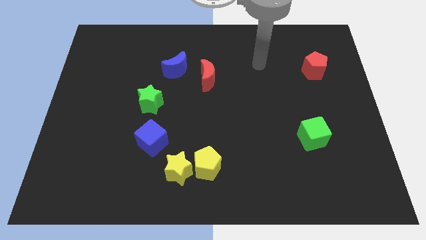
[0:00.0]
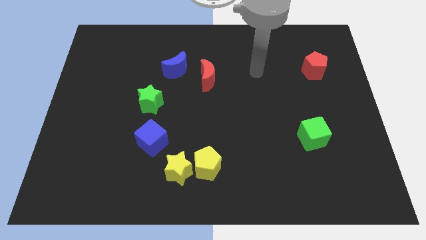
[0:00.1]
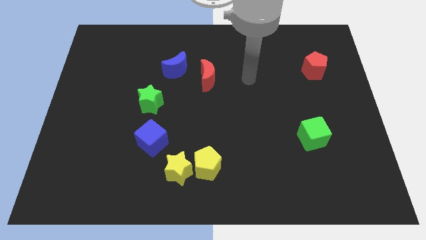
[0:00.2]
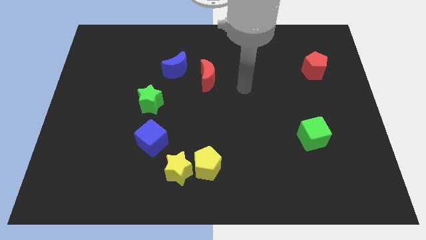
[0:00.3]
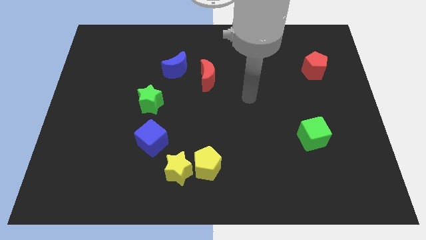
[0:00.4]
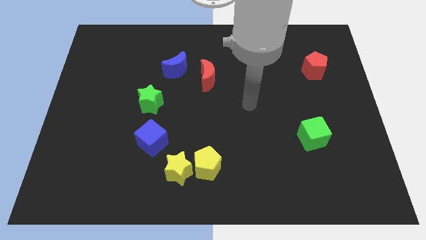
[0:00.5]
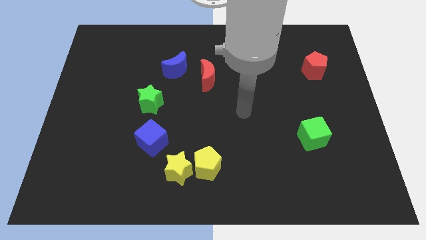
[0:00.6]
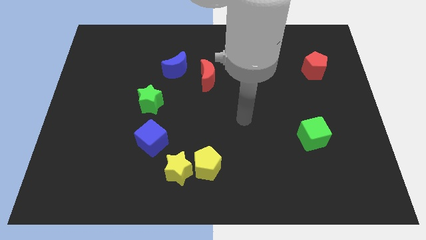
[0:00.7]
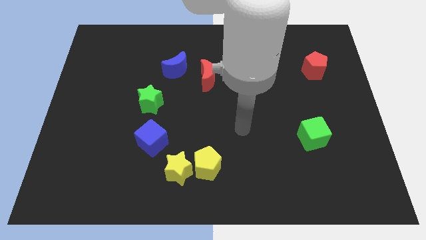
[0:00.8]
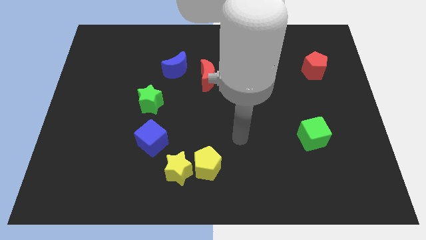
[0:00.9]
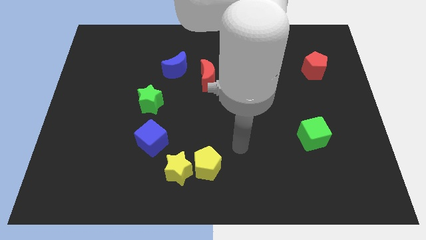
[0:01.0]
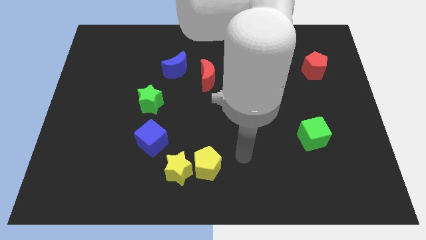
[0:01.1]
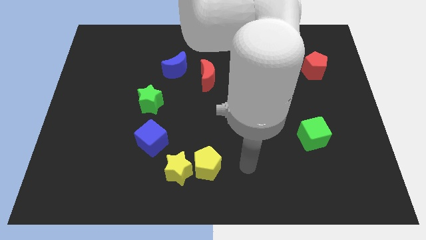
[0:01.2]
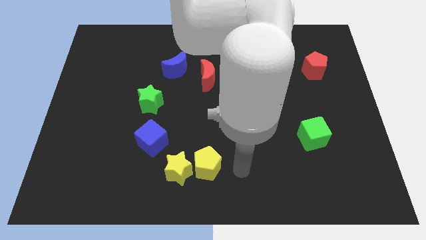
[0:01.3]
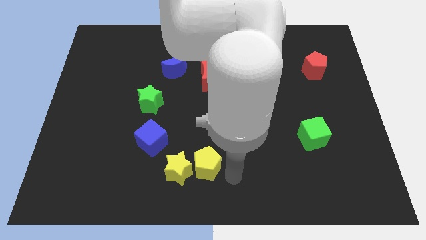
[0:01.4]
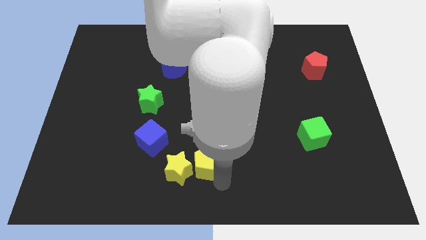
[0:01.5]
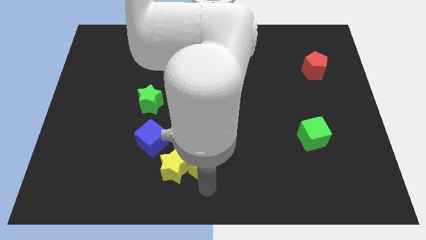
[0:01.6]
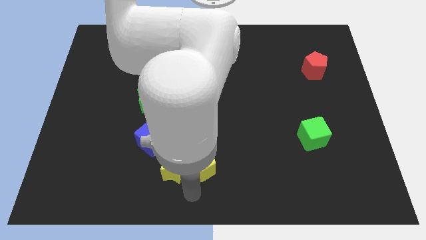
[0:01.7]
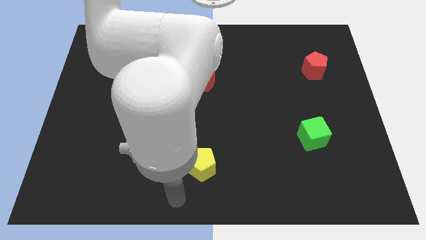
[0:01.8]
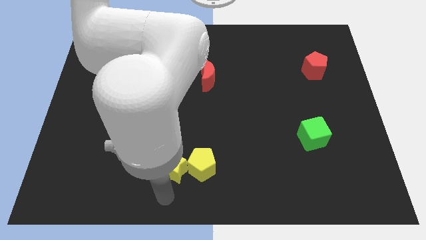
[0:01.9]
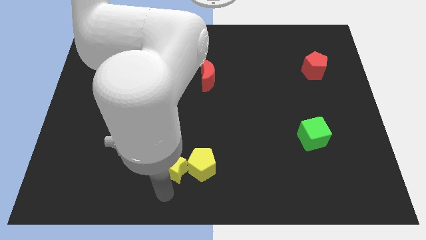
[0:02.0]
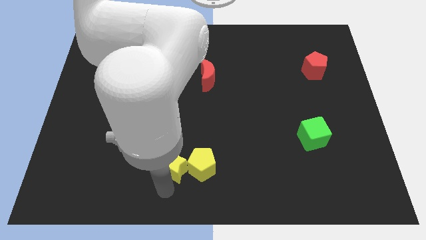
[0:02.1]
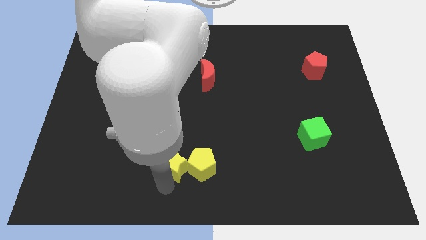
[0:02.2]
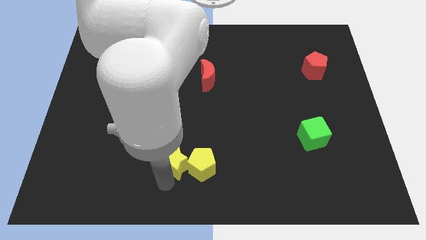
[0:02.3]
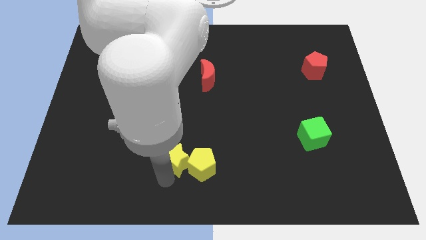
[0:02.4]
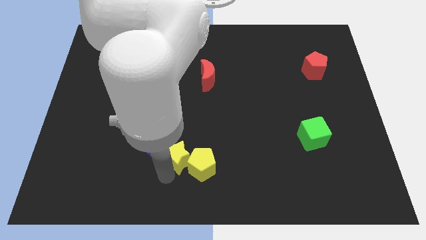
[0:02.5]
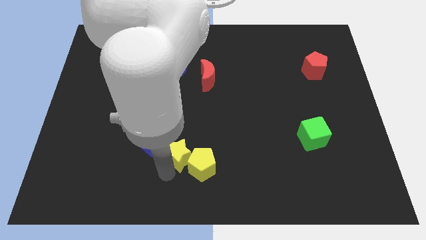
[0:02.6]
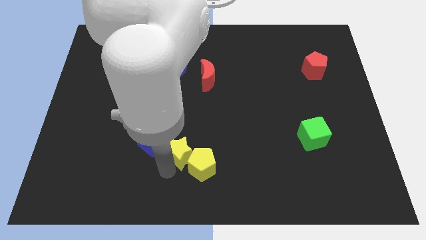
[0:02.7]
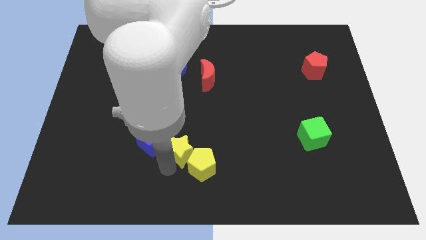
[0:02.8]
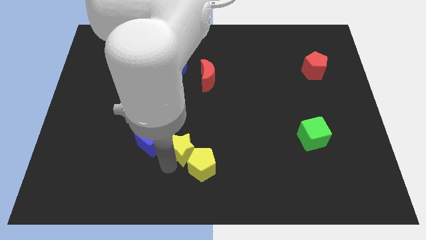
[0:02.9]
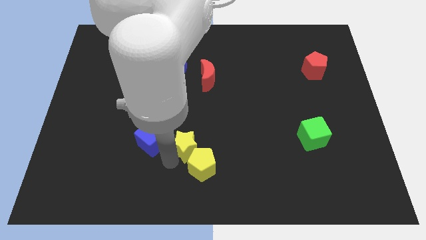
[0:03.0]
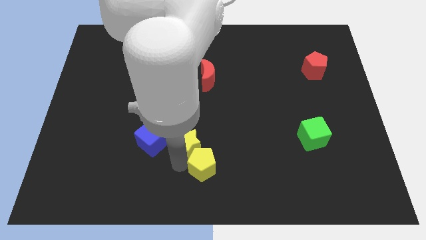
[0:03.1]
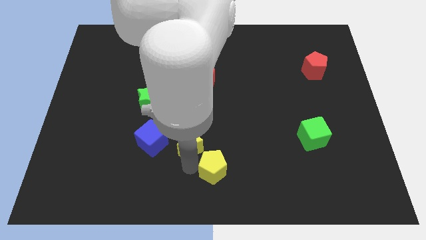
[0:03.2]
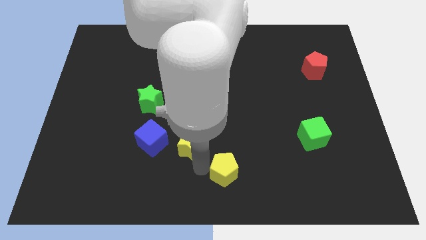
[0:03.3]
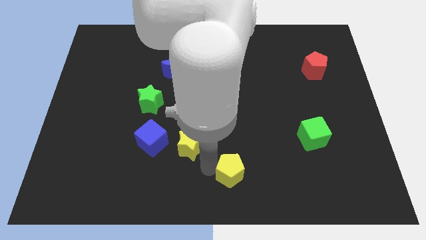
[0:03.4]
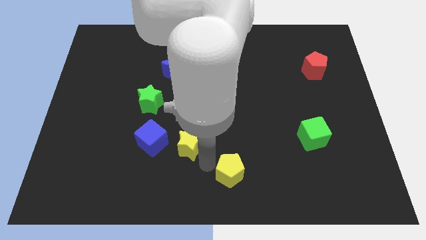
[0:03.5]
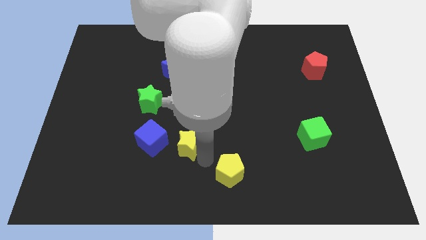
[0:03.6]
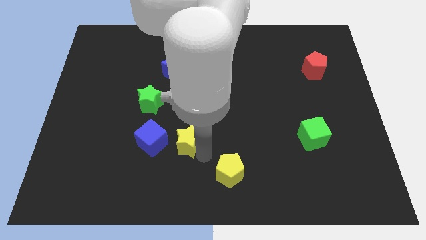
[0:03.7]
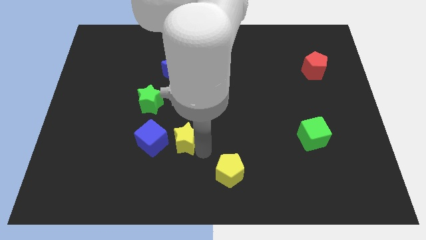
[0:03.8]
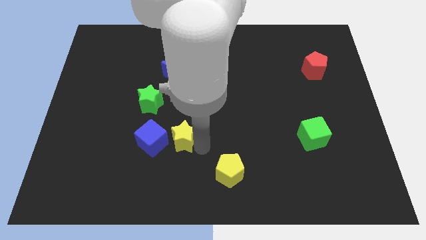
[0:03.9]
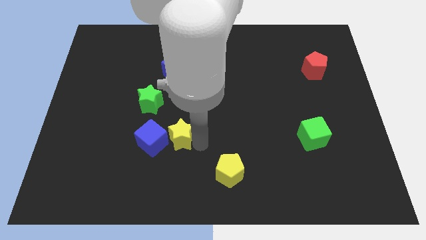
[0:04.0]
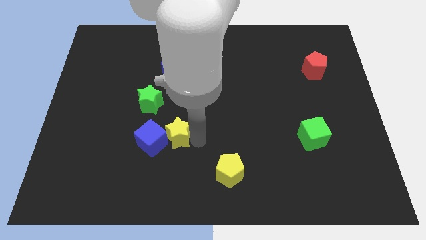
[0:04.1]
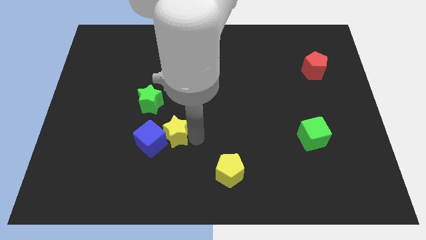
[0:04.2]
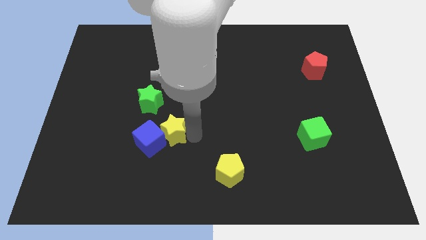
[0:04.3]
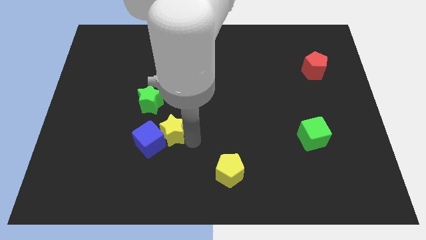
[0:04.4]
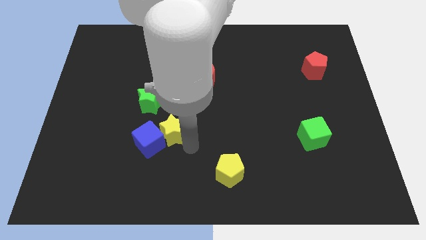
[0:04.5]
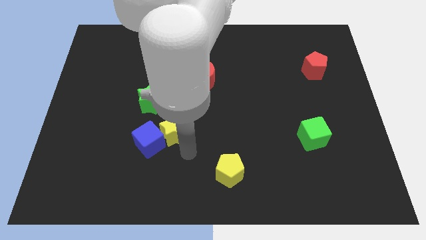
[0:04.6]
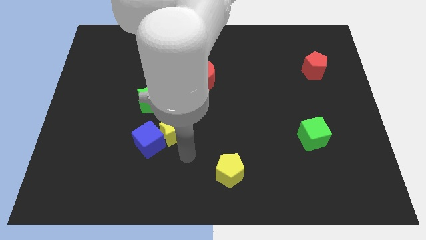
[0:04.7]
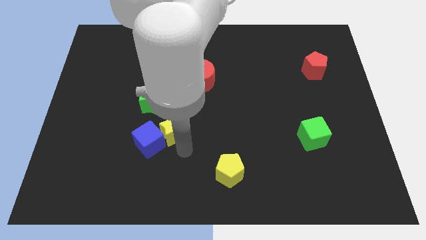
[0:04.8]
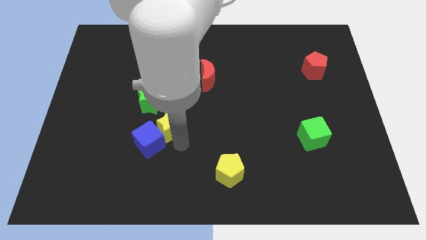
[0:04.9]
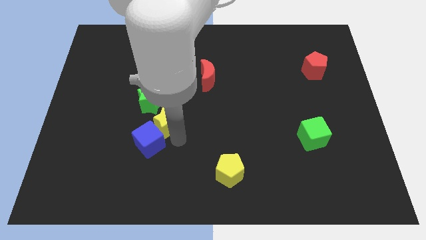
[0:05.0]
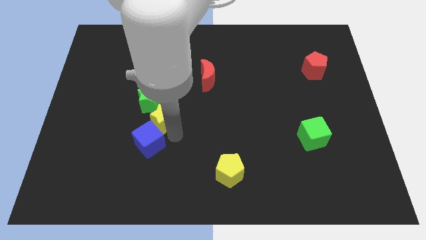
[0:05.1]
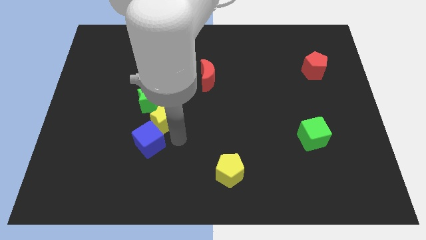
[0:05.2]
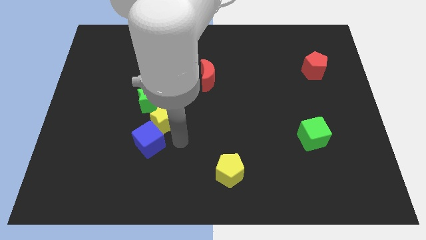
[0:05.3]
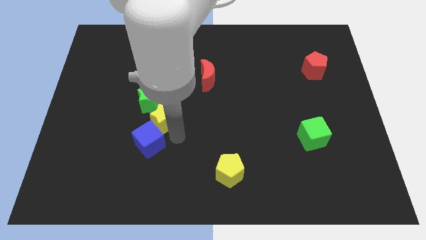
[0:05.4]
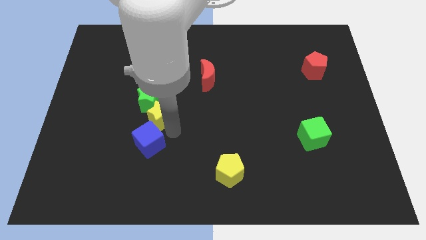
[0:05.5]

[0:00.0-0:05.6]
move the yellow star towards the green star

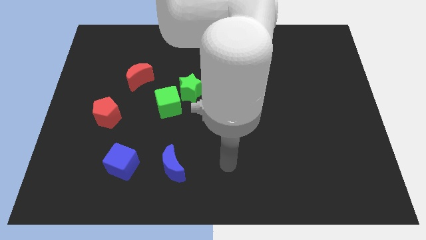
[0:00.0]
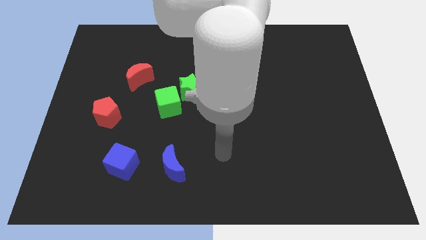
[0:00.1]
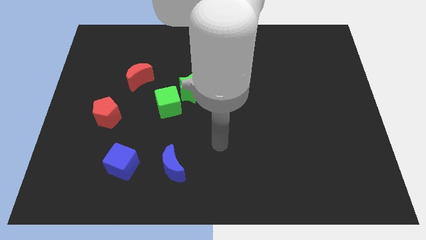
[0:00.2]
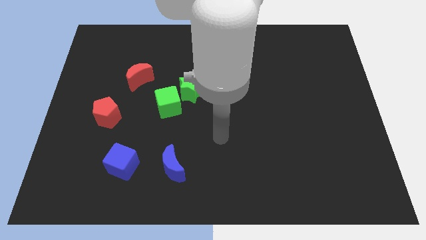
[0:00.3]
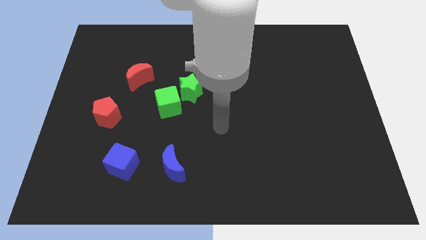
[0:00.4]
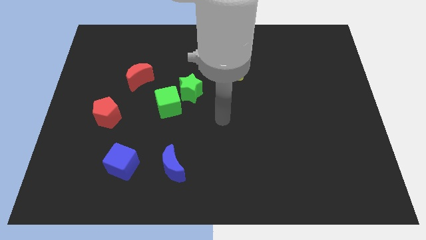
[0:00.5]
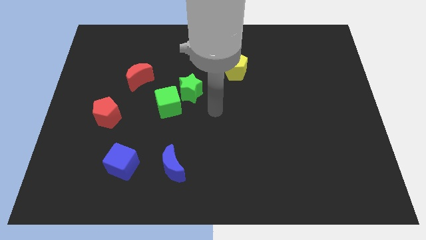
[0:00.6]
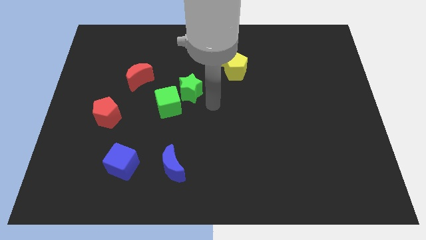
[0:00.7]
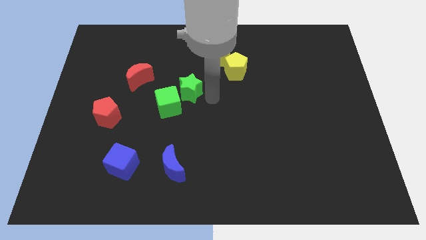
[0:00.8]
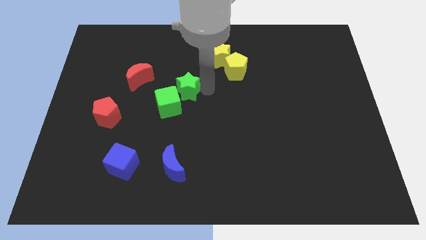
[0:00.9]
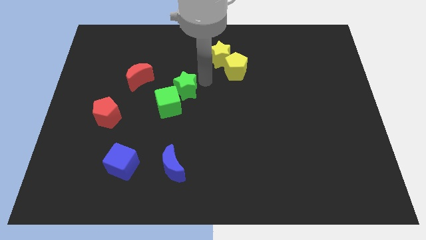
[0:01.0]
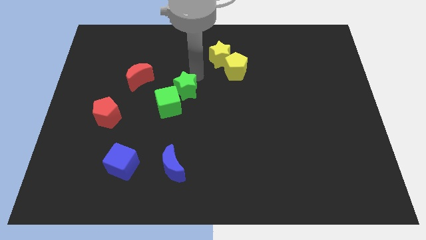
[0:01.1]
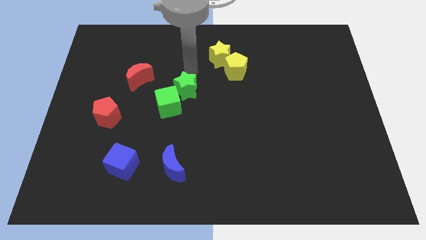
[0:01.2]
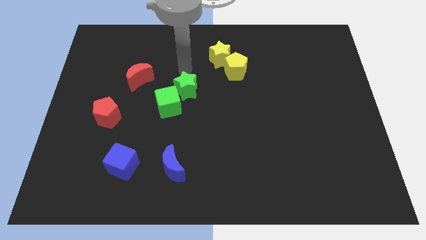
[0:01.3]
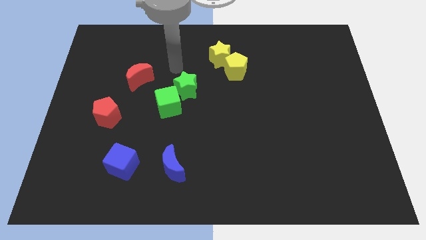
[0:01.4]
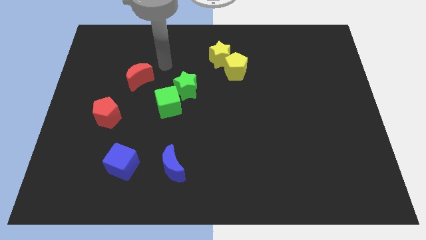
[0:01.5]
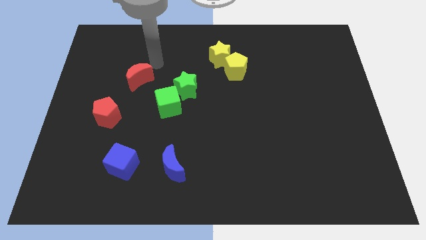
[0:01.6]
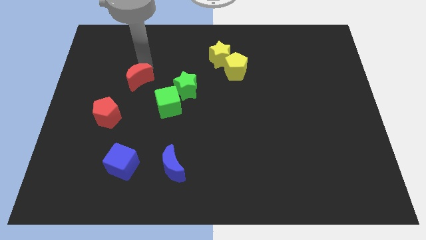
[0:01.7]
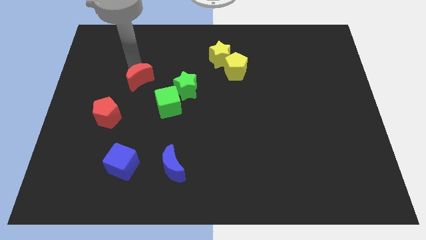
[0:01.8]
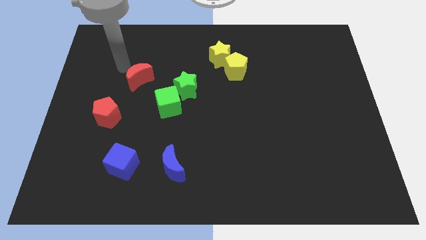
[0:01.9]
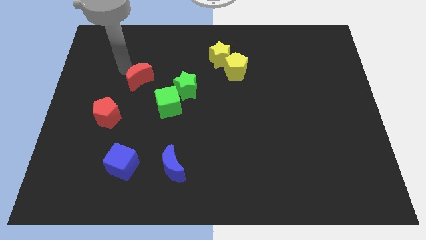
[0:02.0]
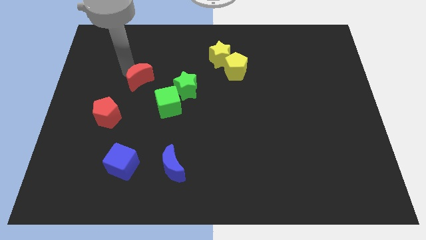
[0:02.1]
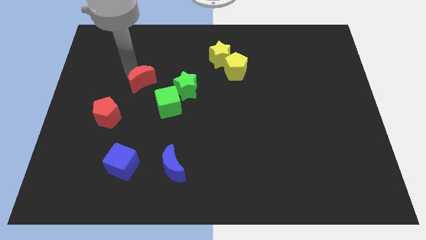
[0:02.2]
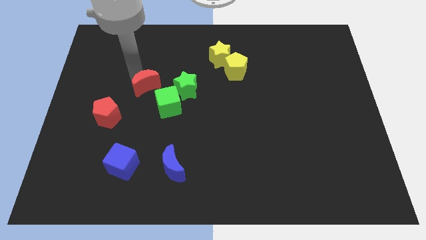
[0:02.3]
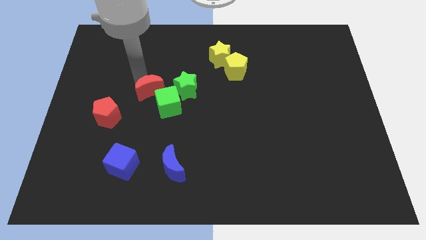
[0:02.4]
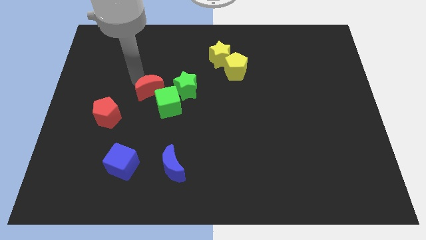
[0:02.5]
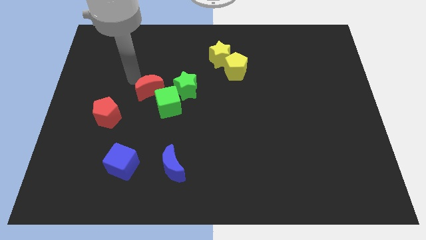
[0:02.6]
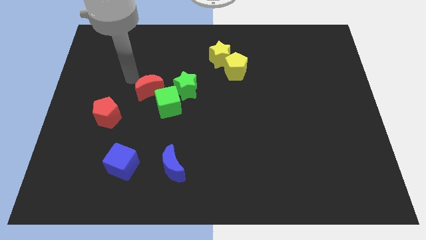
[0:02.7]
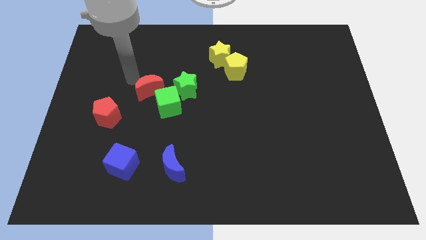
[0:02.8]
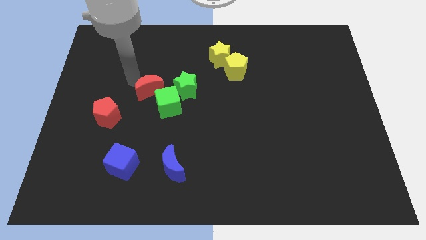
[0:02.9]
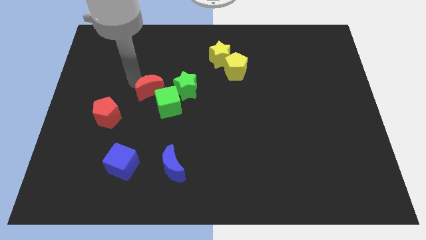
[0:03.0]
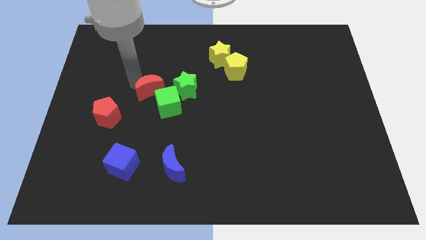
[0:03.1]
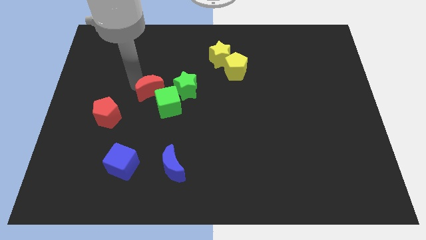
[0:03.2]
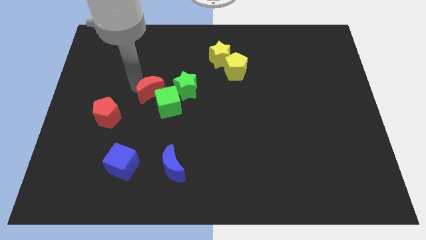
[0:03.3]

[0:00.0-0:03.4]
push the red moon towards the green cube
